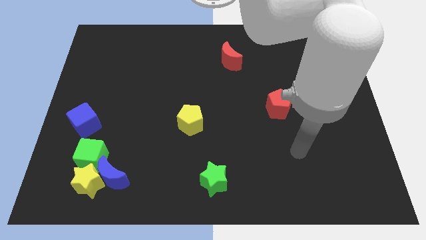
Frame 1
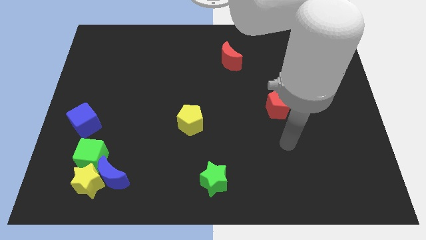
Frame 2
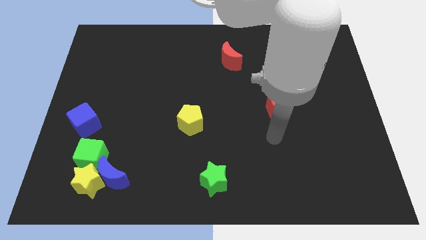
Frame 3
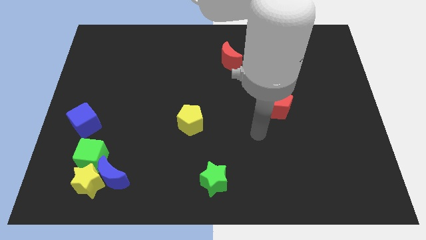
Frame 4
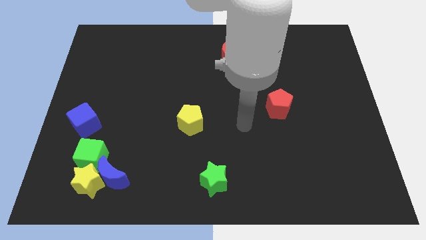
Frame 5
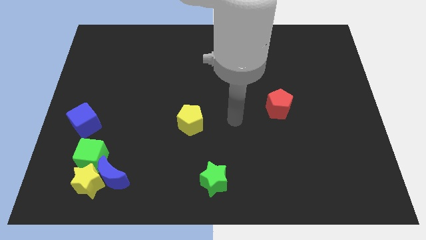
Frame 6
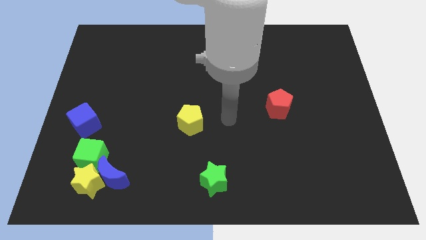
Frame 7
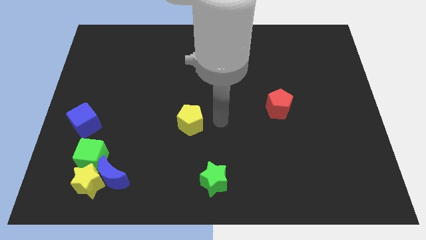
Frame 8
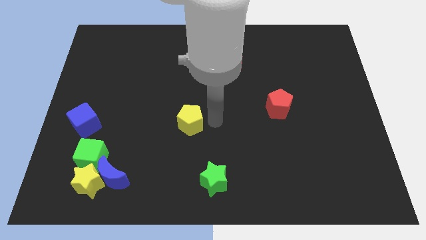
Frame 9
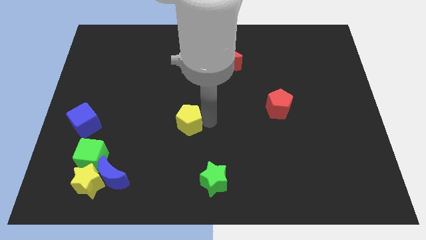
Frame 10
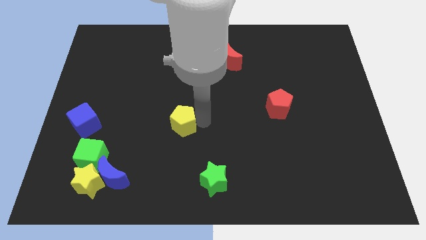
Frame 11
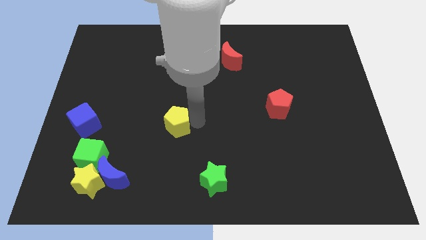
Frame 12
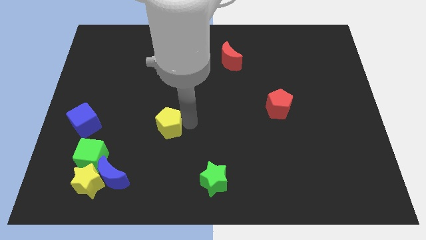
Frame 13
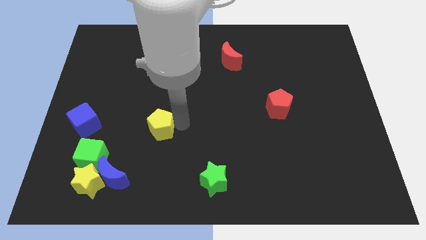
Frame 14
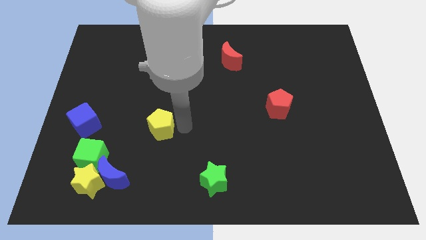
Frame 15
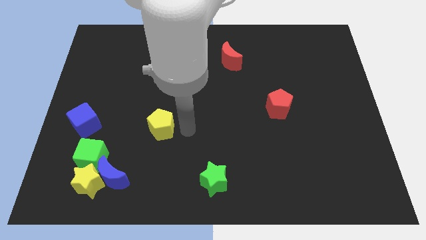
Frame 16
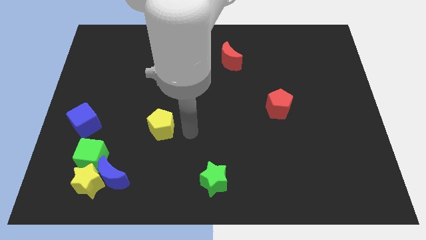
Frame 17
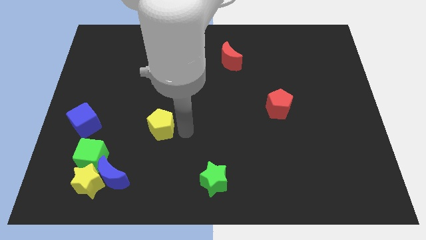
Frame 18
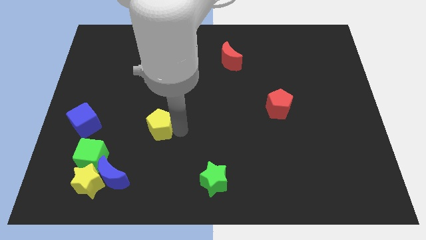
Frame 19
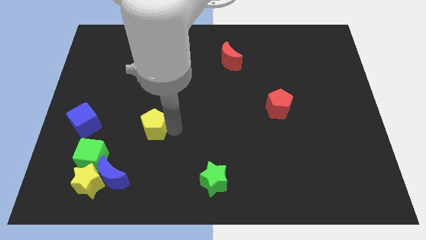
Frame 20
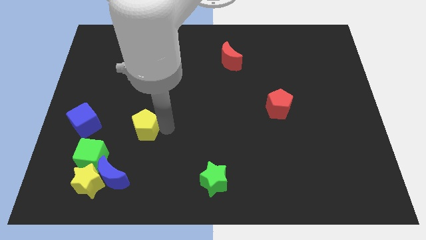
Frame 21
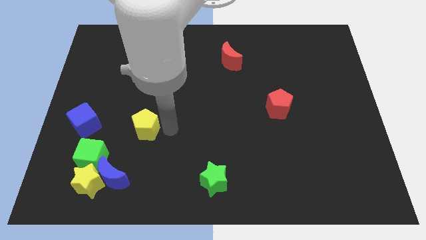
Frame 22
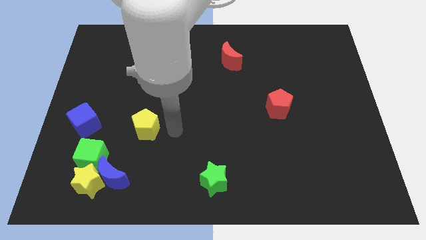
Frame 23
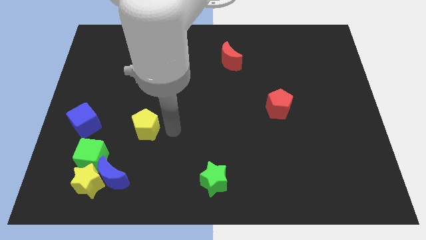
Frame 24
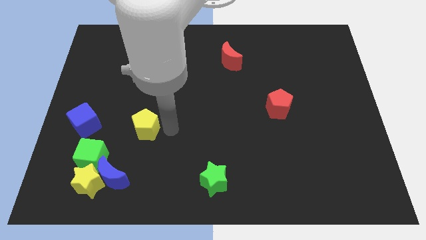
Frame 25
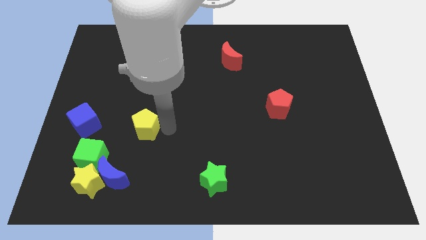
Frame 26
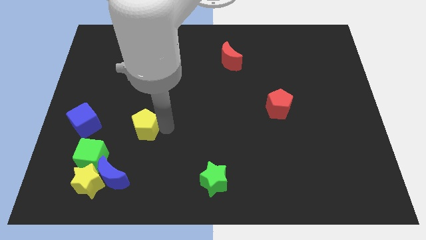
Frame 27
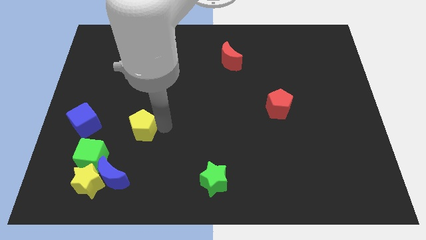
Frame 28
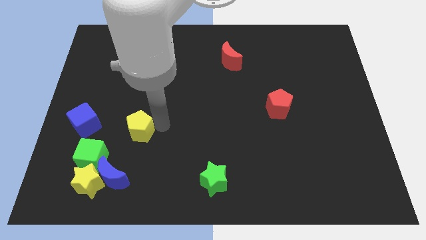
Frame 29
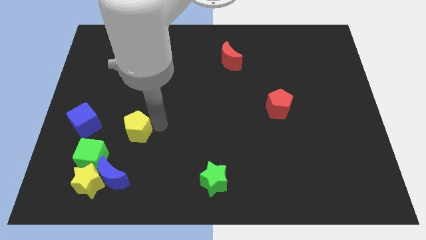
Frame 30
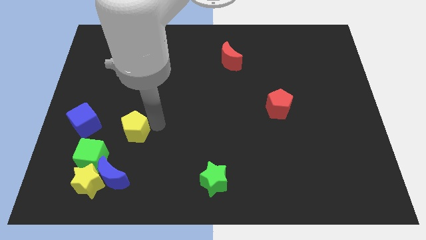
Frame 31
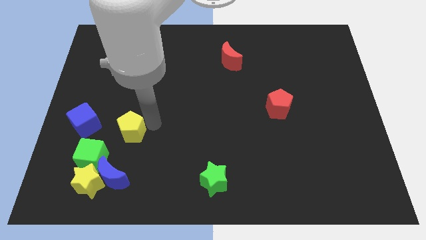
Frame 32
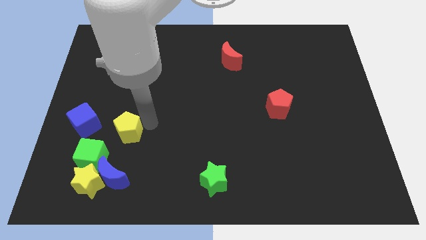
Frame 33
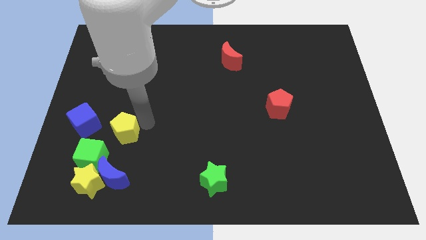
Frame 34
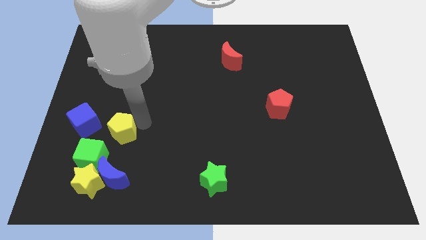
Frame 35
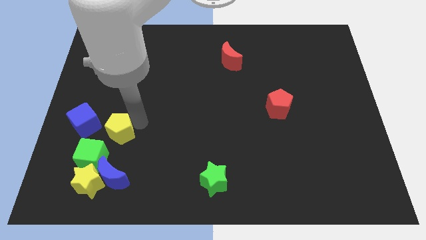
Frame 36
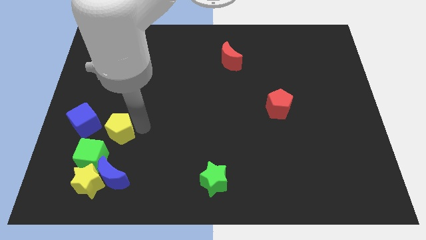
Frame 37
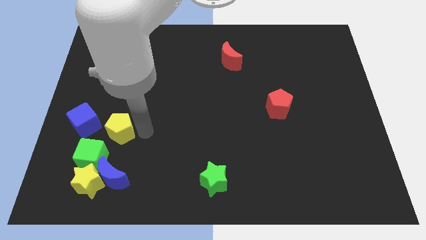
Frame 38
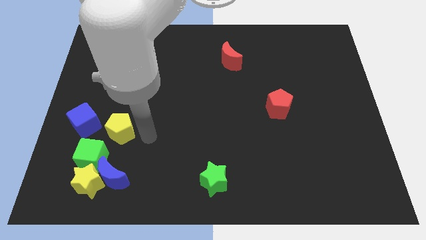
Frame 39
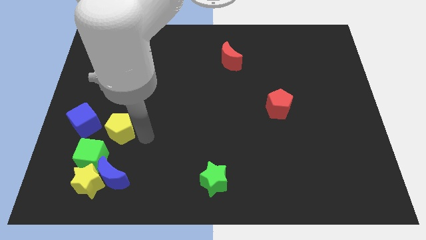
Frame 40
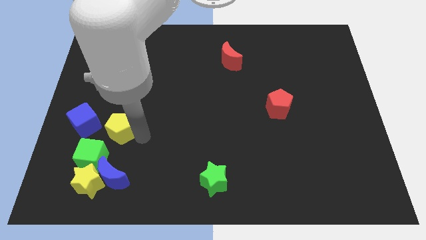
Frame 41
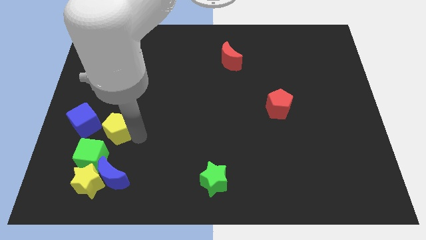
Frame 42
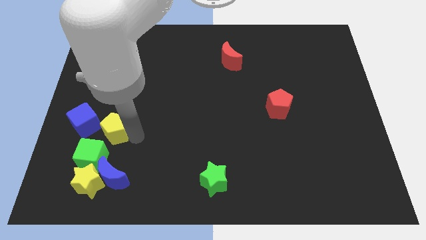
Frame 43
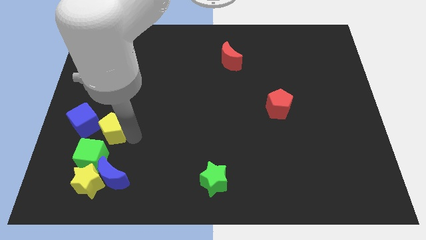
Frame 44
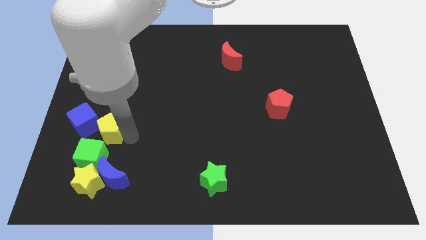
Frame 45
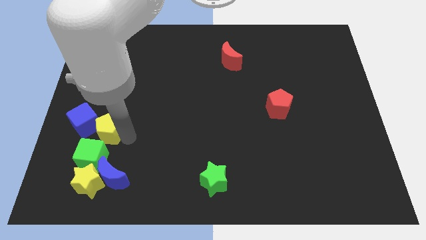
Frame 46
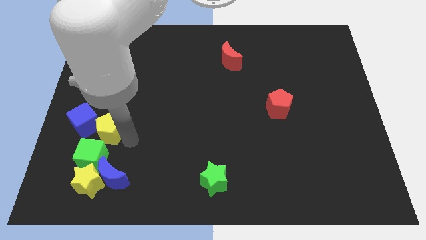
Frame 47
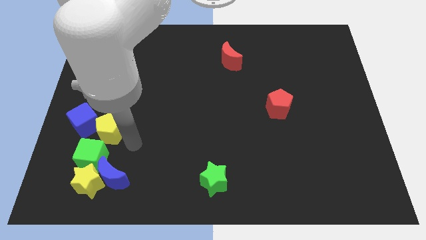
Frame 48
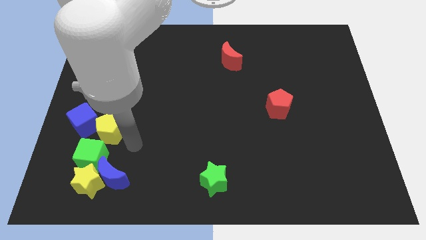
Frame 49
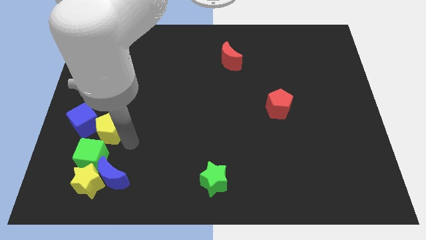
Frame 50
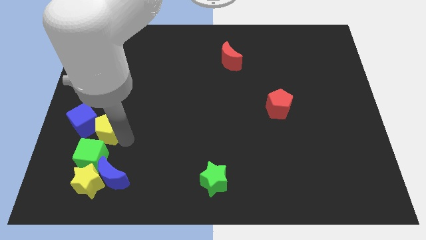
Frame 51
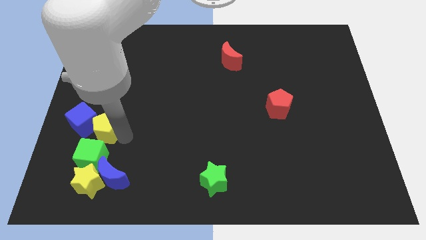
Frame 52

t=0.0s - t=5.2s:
put the yellow pentagon to the blue cube

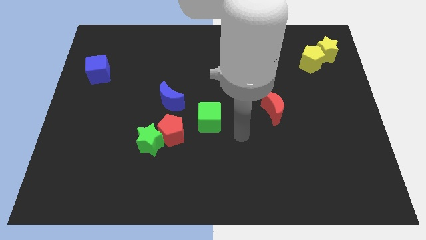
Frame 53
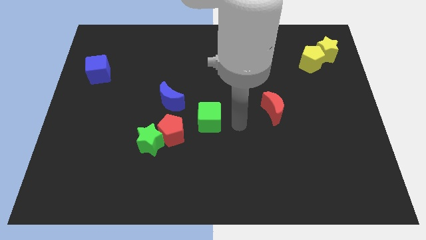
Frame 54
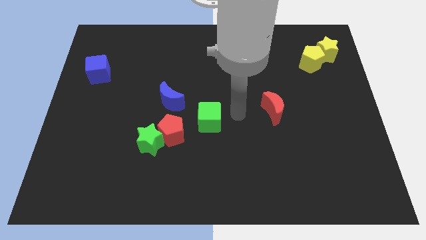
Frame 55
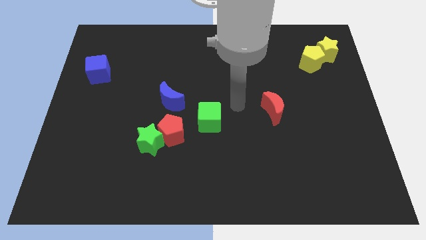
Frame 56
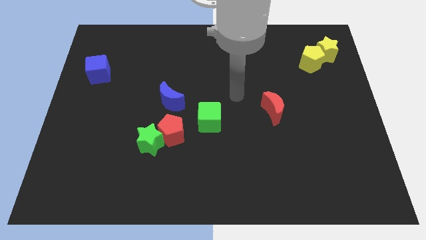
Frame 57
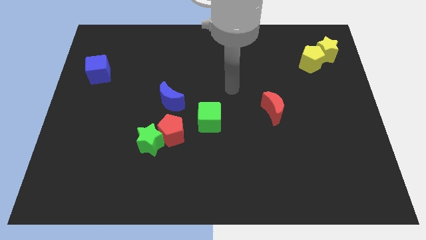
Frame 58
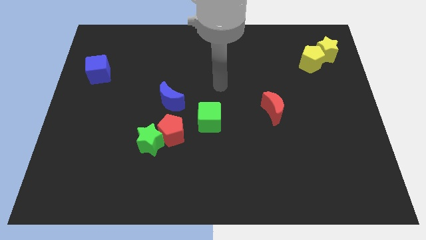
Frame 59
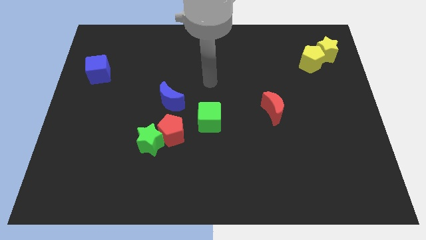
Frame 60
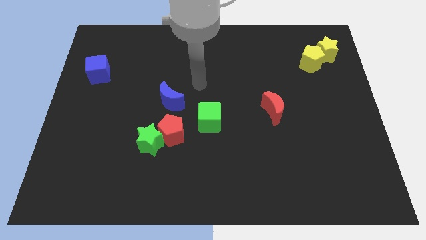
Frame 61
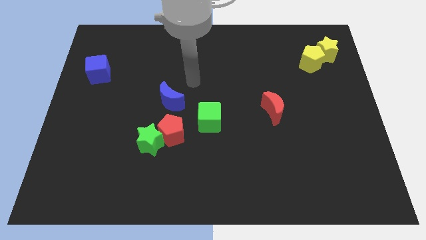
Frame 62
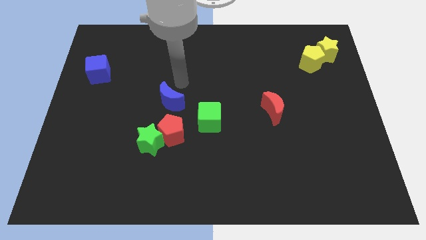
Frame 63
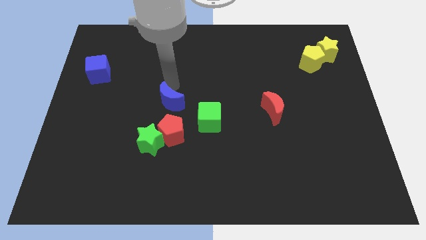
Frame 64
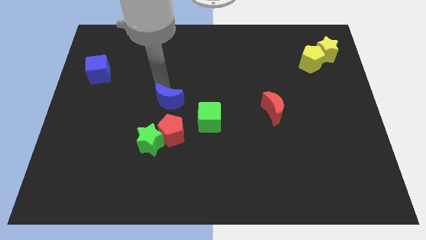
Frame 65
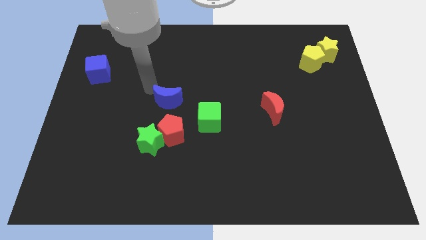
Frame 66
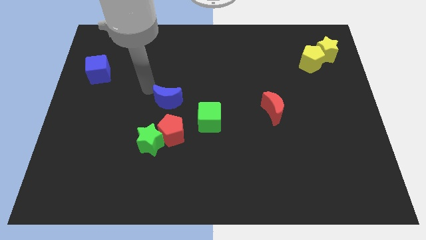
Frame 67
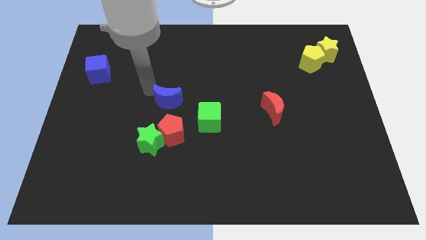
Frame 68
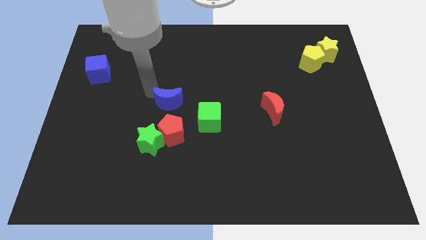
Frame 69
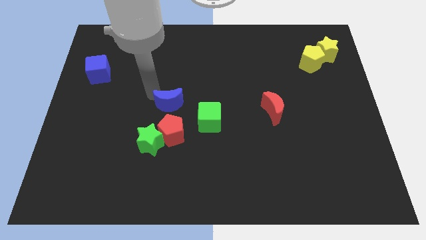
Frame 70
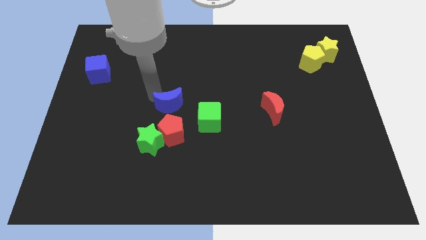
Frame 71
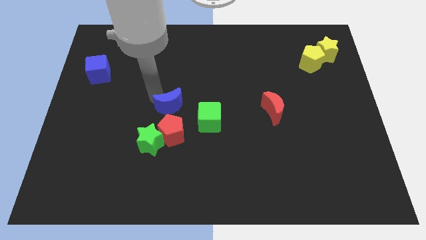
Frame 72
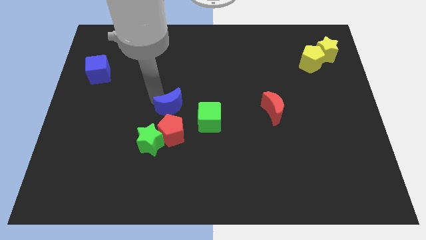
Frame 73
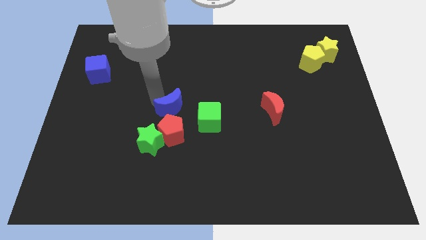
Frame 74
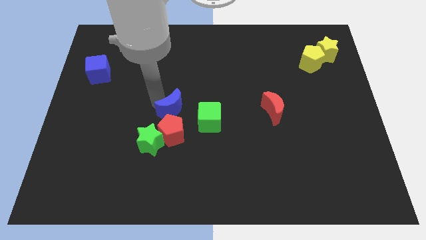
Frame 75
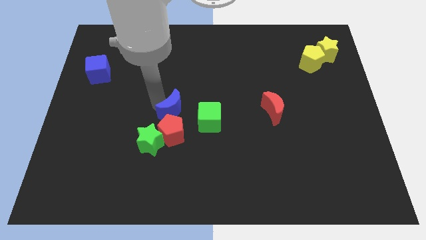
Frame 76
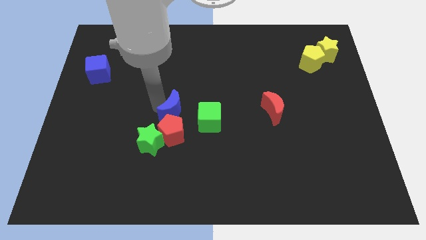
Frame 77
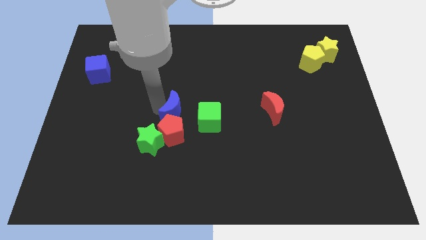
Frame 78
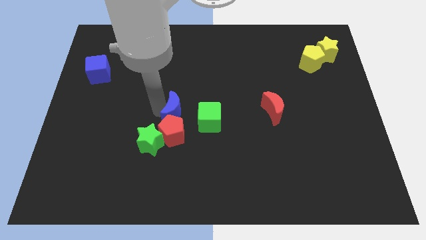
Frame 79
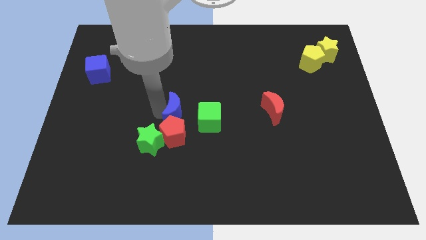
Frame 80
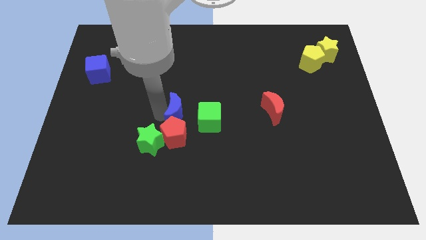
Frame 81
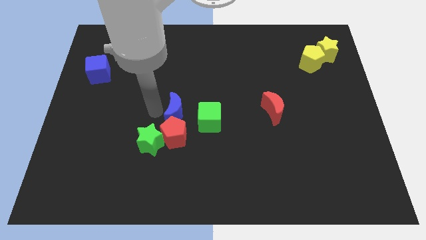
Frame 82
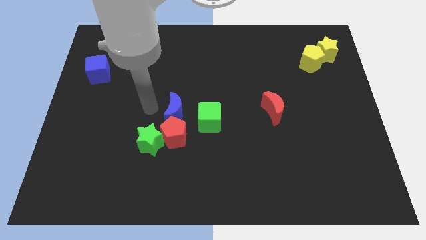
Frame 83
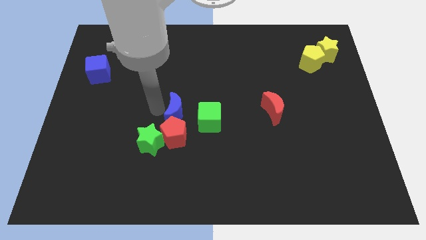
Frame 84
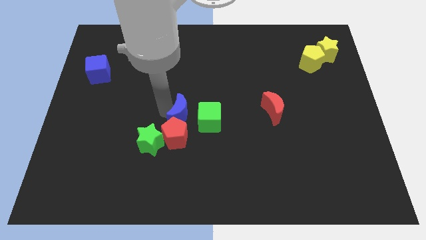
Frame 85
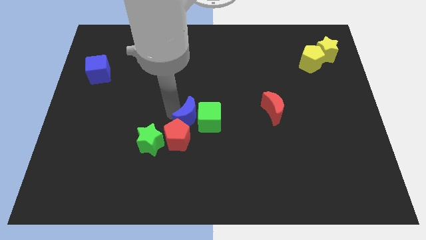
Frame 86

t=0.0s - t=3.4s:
move the blue moon to the green cube
